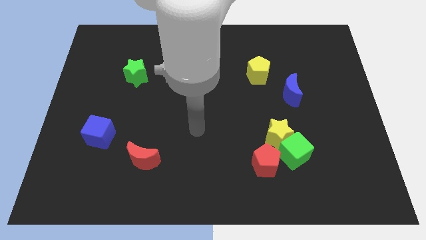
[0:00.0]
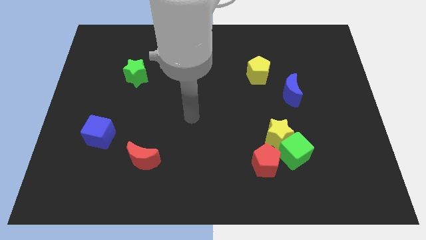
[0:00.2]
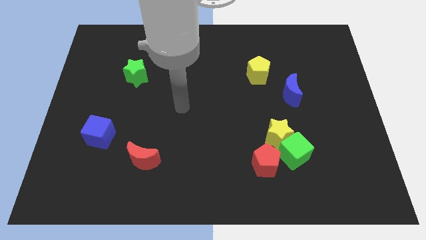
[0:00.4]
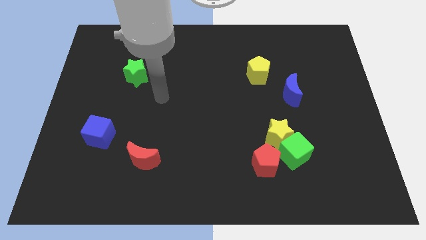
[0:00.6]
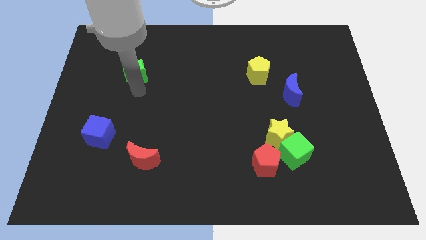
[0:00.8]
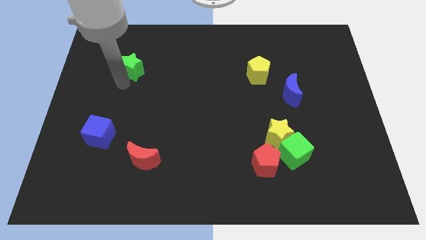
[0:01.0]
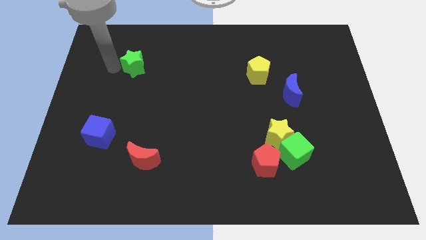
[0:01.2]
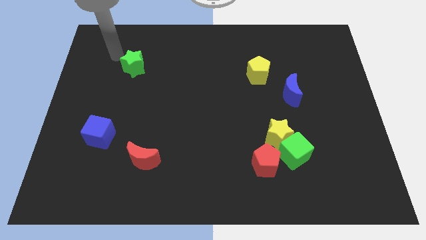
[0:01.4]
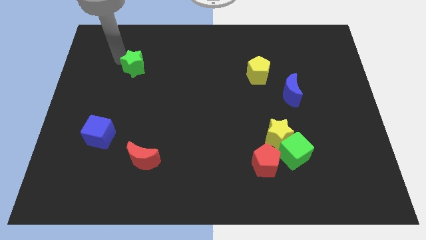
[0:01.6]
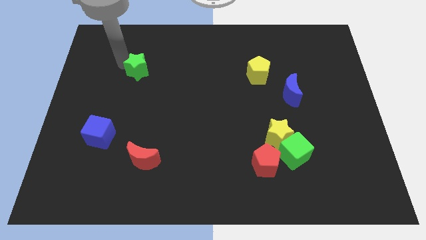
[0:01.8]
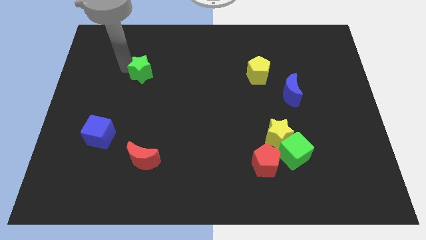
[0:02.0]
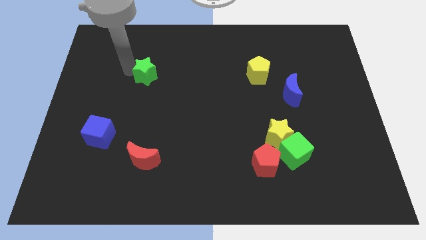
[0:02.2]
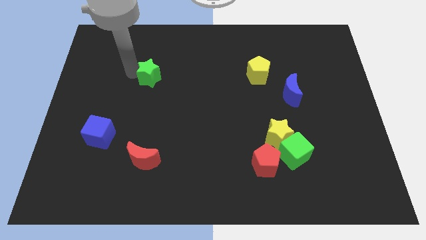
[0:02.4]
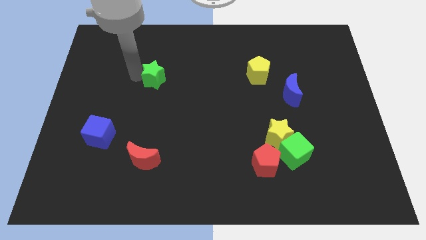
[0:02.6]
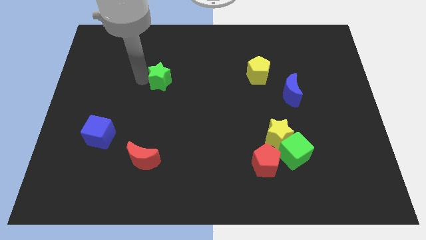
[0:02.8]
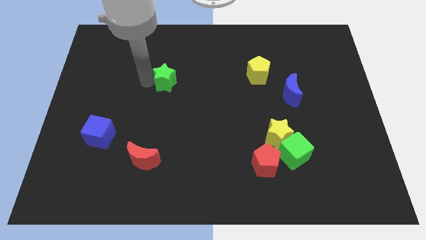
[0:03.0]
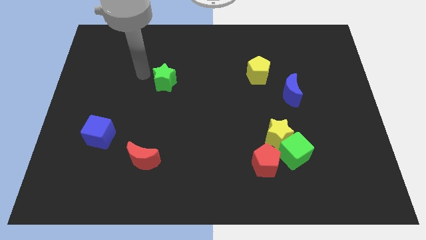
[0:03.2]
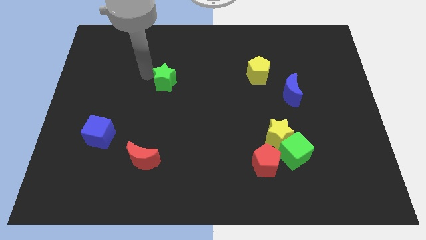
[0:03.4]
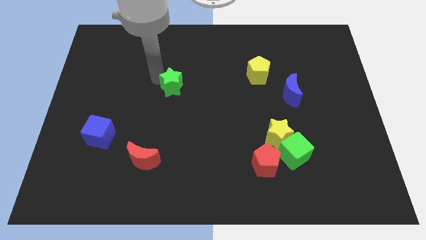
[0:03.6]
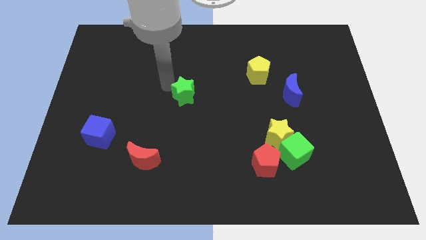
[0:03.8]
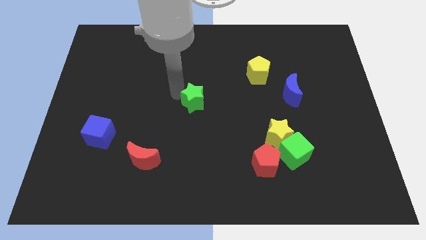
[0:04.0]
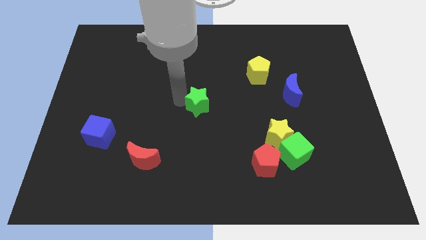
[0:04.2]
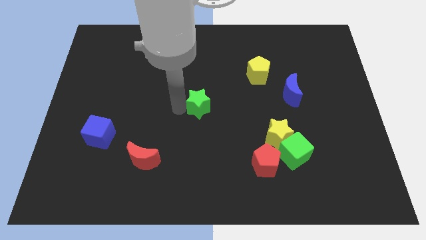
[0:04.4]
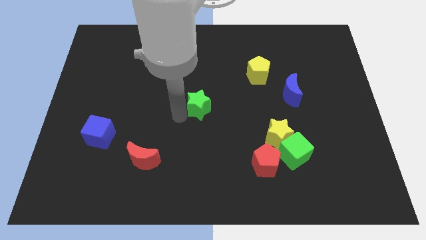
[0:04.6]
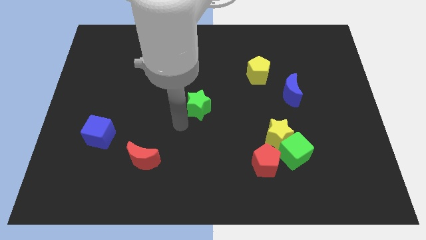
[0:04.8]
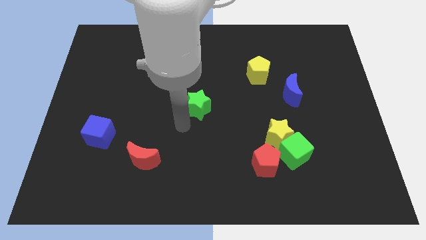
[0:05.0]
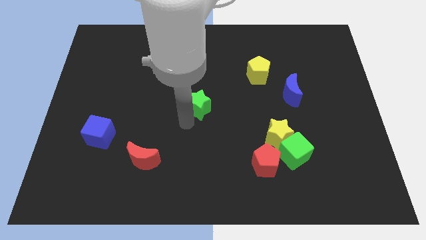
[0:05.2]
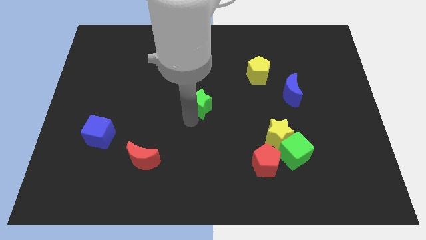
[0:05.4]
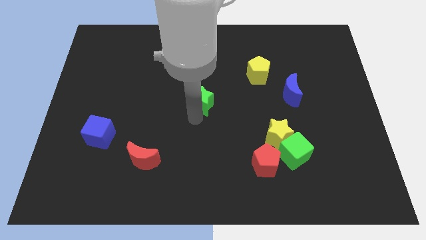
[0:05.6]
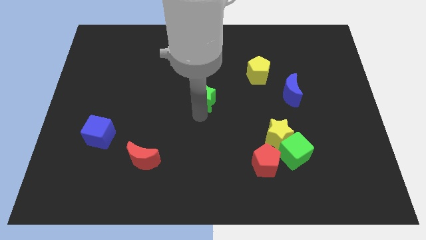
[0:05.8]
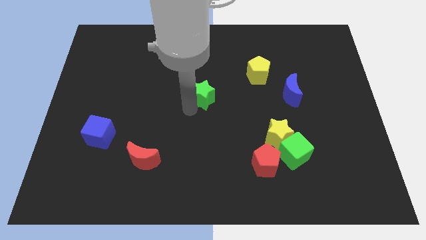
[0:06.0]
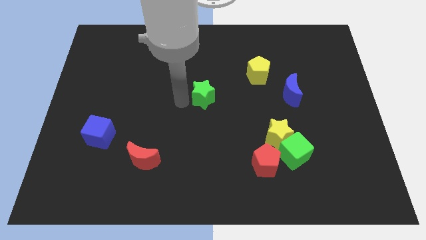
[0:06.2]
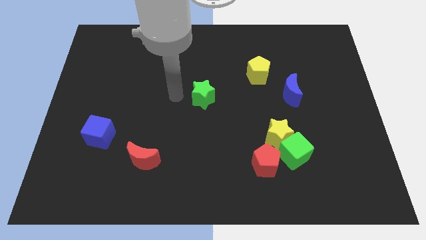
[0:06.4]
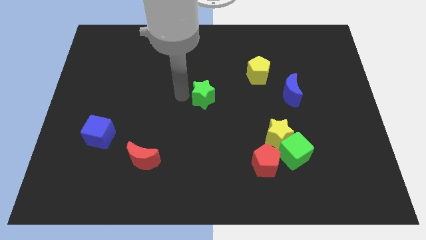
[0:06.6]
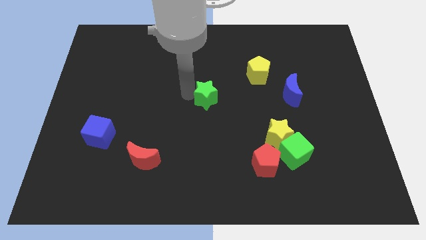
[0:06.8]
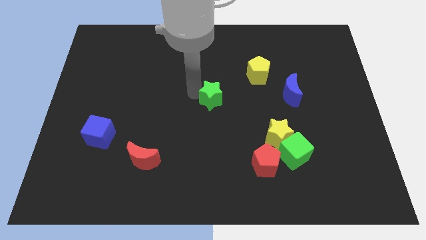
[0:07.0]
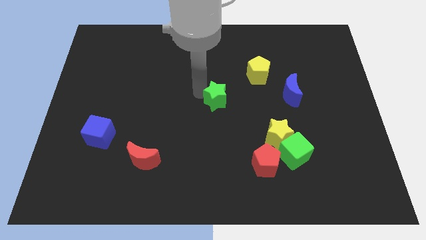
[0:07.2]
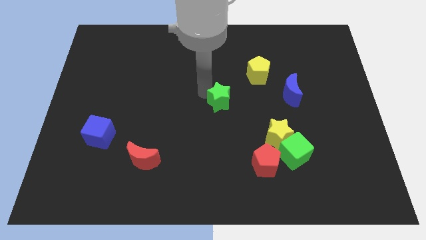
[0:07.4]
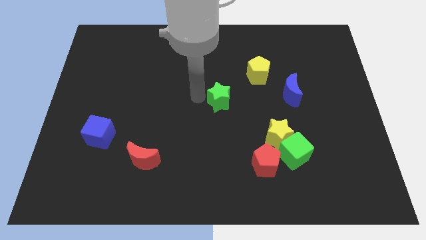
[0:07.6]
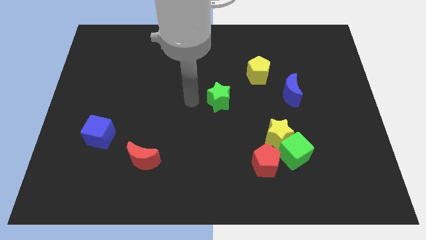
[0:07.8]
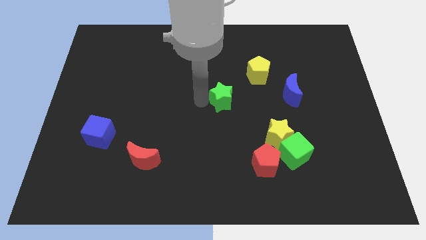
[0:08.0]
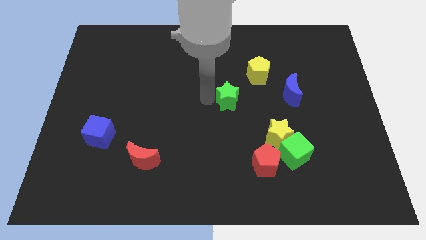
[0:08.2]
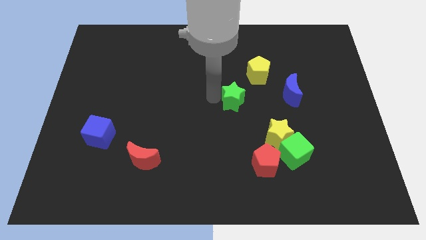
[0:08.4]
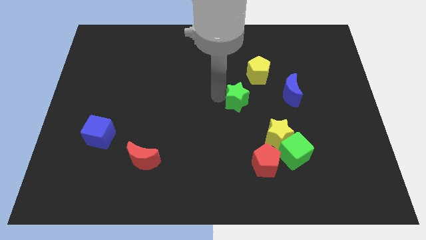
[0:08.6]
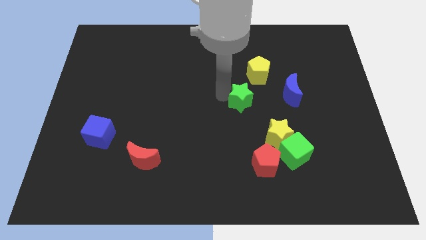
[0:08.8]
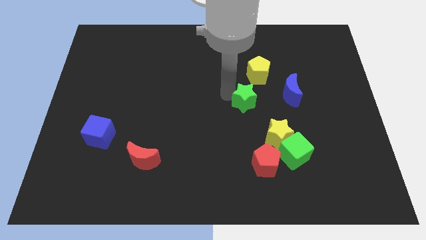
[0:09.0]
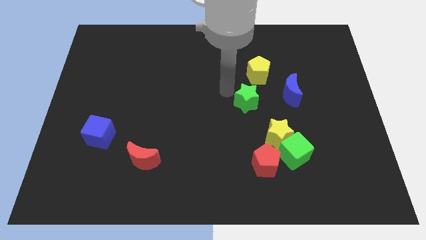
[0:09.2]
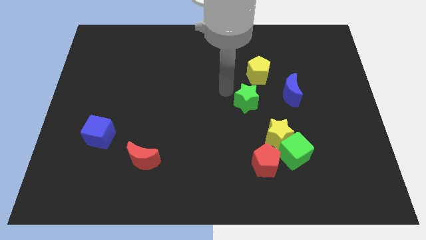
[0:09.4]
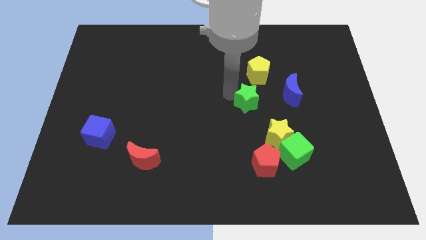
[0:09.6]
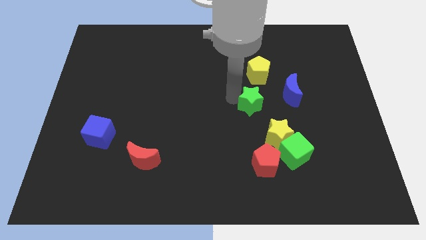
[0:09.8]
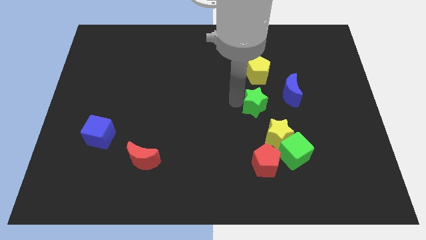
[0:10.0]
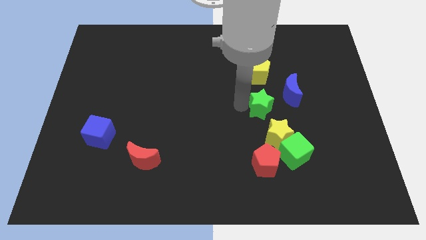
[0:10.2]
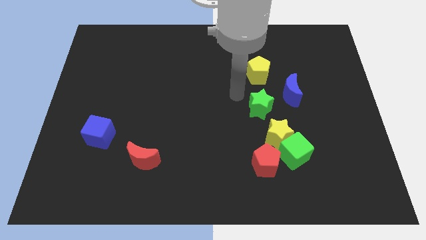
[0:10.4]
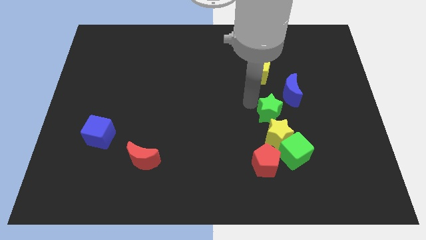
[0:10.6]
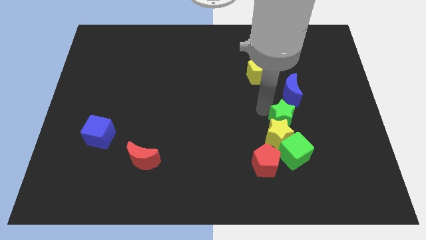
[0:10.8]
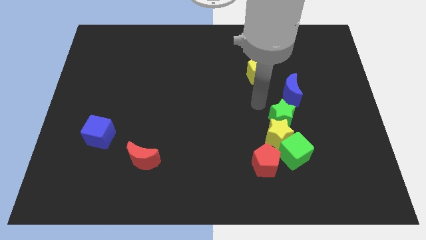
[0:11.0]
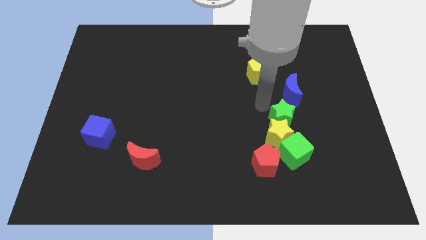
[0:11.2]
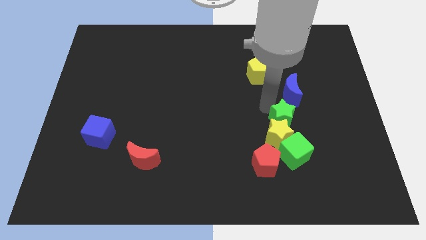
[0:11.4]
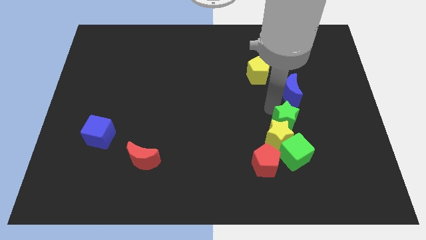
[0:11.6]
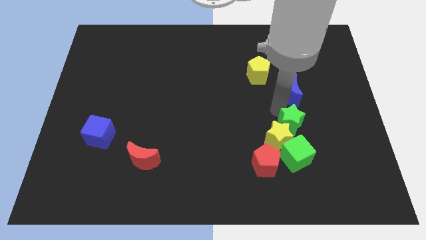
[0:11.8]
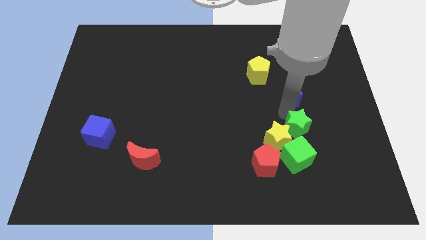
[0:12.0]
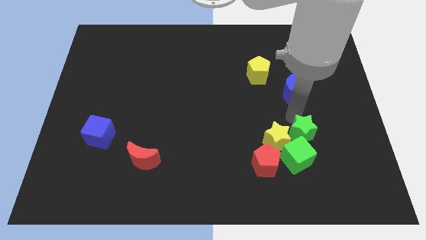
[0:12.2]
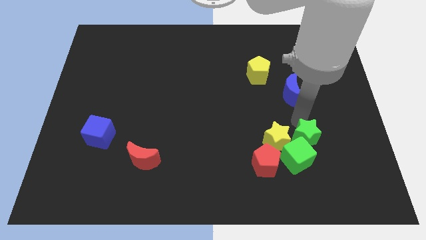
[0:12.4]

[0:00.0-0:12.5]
slide the green star to the bottom right of the yellow star

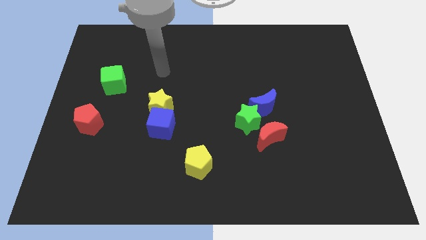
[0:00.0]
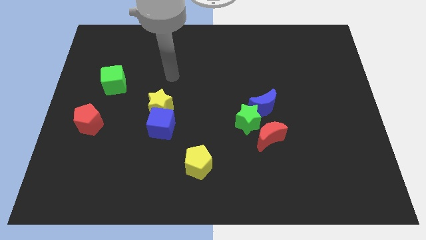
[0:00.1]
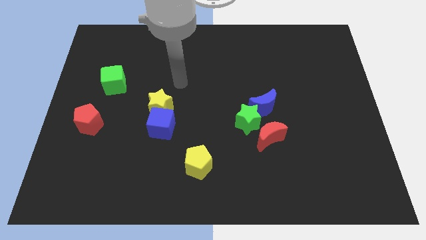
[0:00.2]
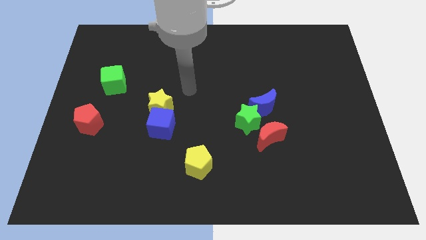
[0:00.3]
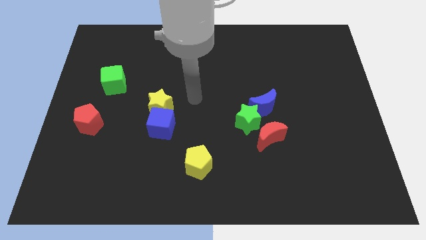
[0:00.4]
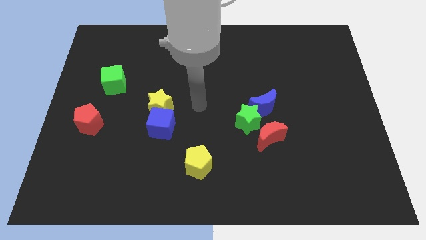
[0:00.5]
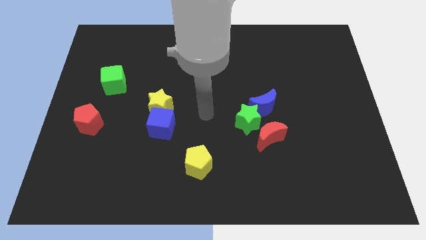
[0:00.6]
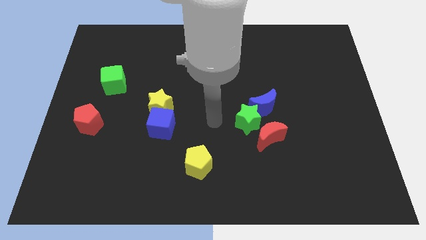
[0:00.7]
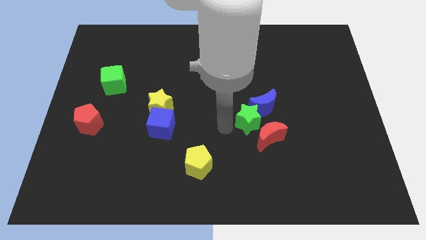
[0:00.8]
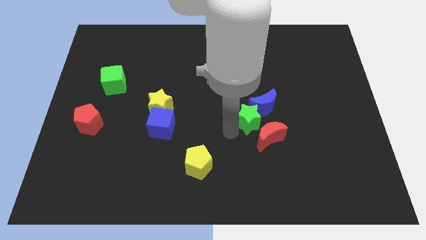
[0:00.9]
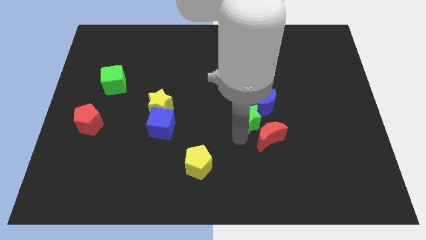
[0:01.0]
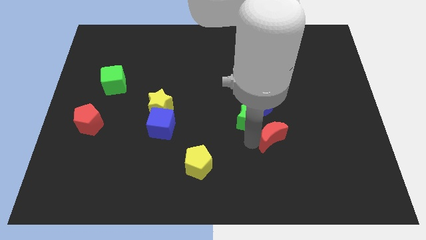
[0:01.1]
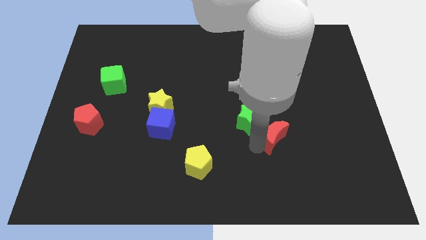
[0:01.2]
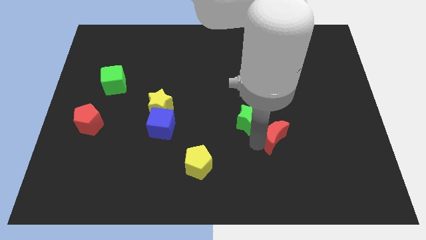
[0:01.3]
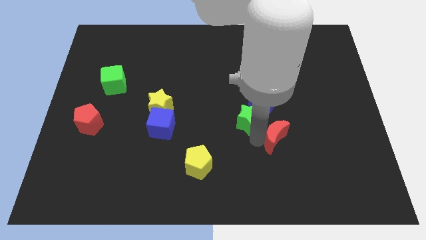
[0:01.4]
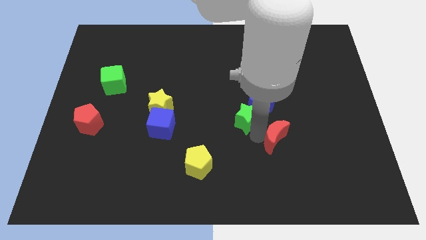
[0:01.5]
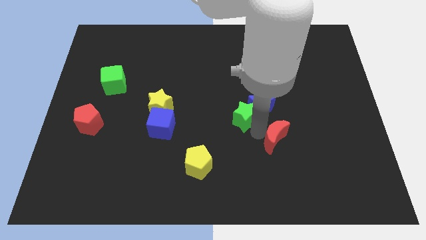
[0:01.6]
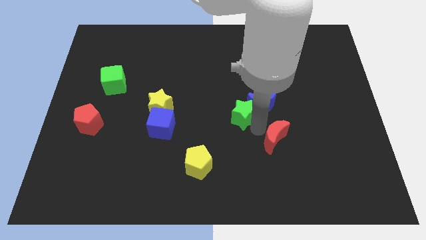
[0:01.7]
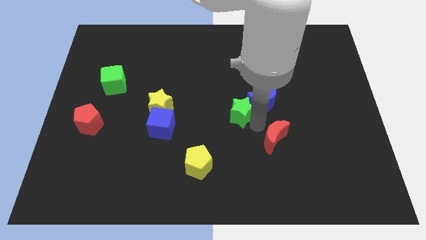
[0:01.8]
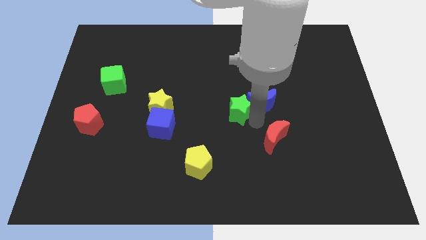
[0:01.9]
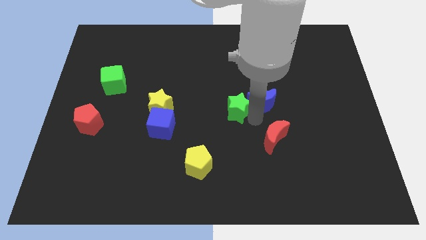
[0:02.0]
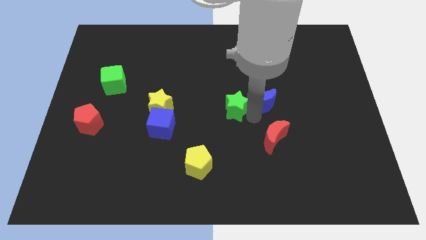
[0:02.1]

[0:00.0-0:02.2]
push the green star to the top left side of the blue moon
